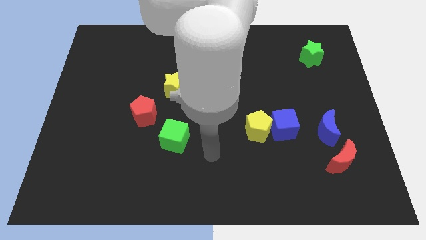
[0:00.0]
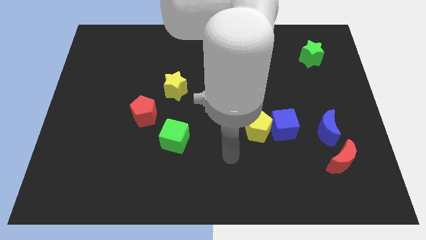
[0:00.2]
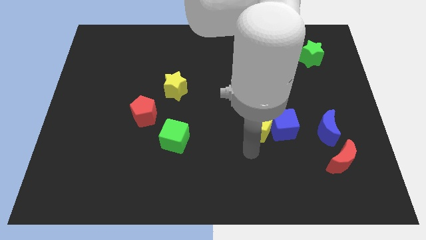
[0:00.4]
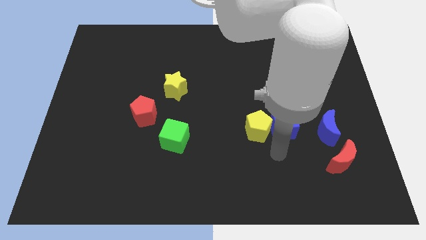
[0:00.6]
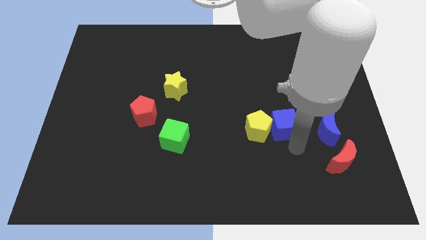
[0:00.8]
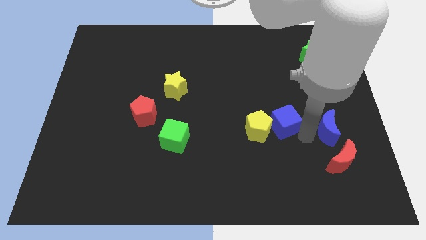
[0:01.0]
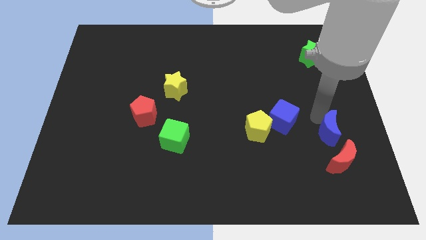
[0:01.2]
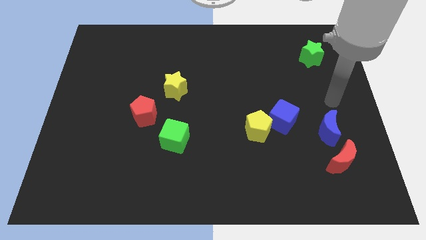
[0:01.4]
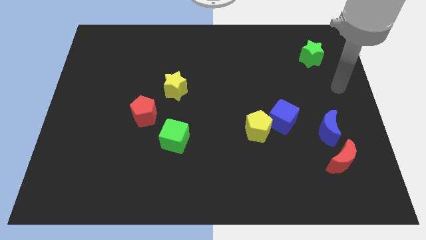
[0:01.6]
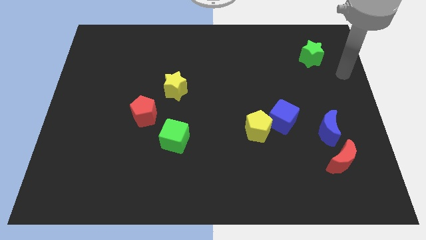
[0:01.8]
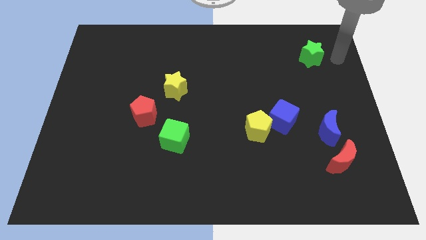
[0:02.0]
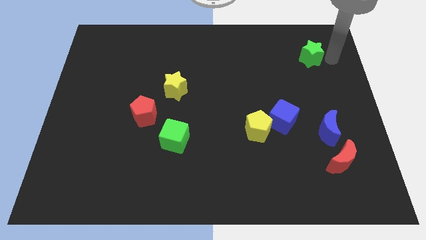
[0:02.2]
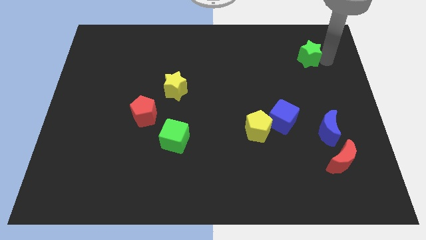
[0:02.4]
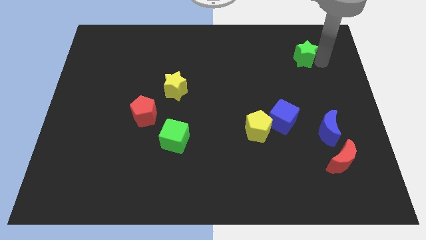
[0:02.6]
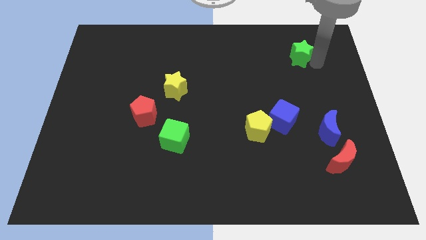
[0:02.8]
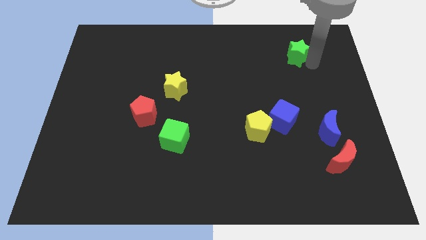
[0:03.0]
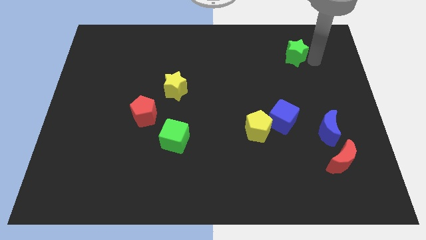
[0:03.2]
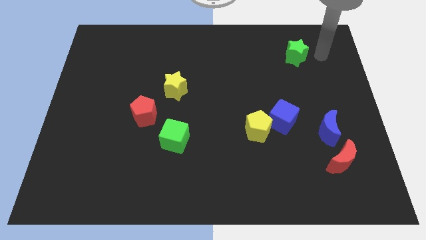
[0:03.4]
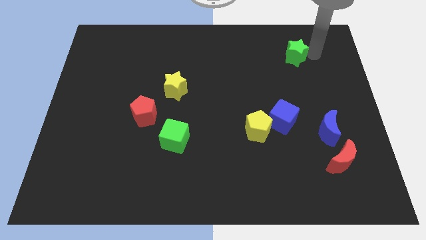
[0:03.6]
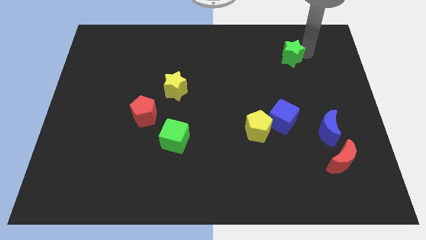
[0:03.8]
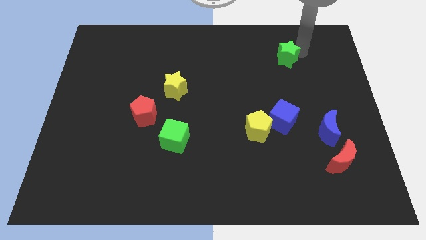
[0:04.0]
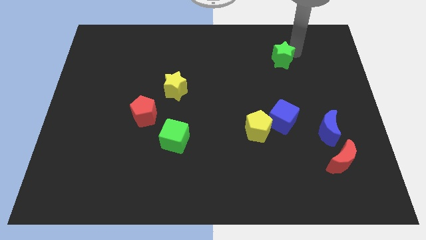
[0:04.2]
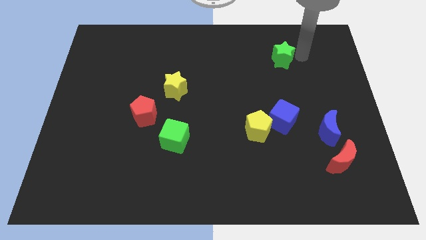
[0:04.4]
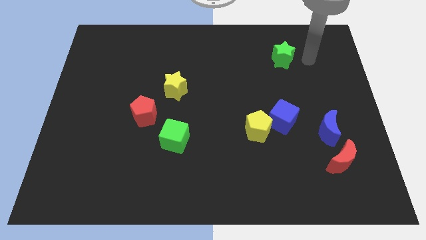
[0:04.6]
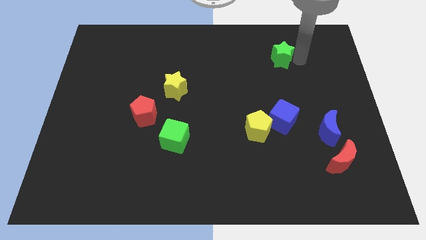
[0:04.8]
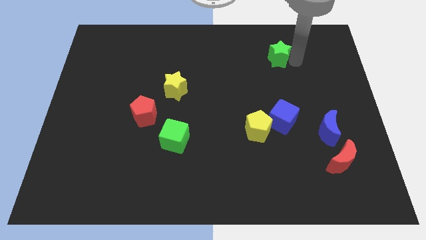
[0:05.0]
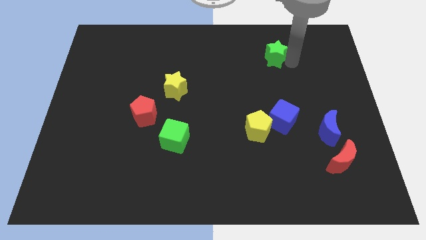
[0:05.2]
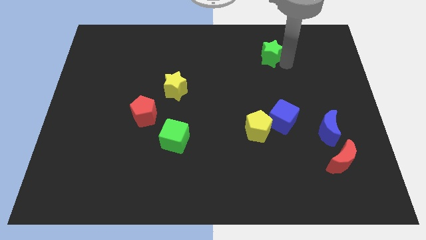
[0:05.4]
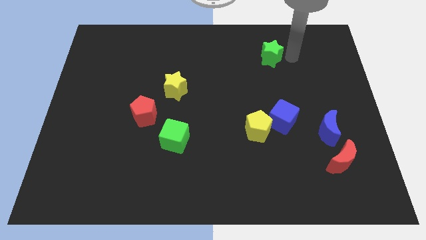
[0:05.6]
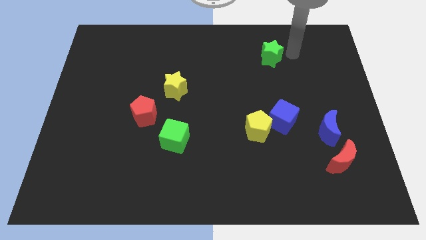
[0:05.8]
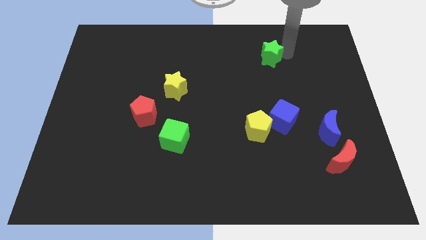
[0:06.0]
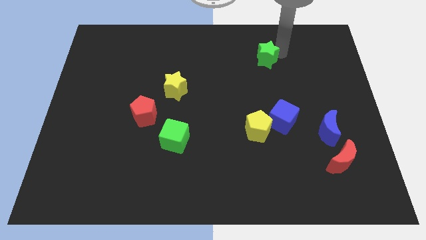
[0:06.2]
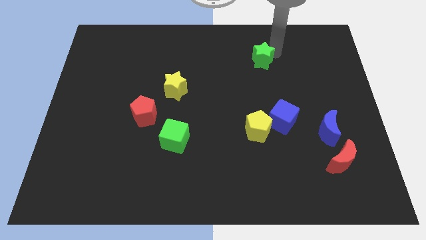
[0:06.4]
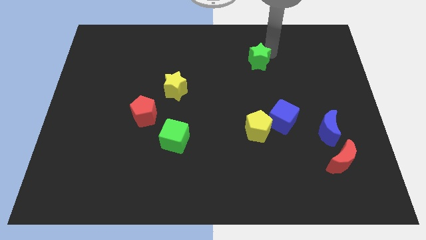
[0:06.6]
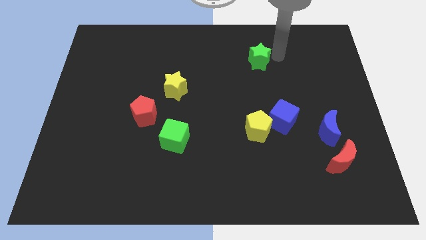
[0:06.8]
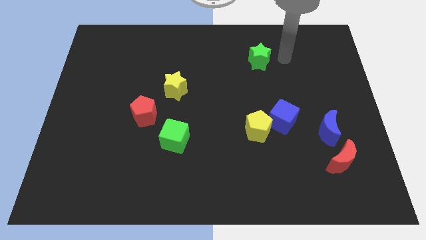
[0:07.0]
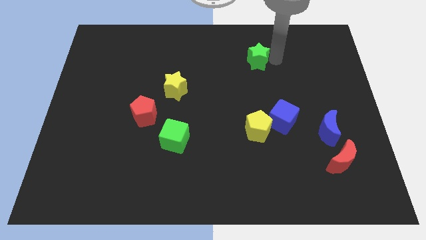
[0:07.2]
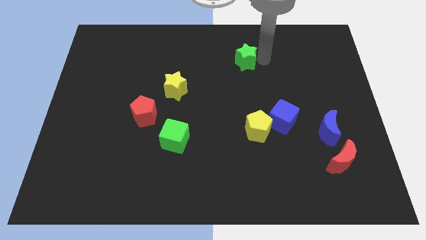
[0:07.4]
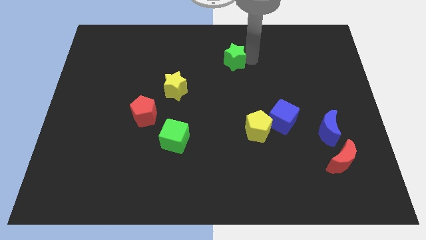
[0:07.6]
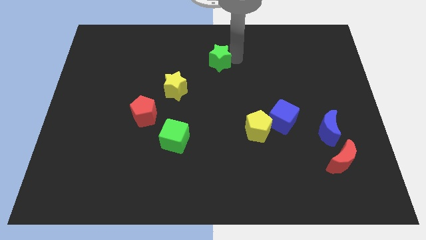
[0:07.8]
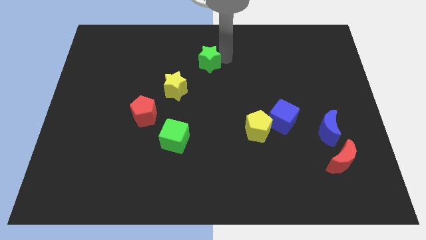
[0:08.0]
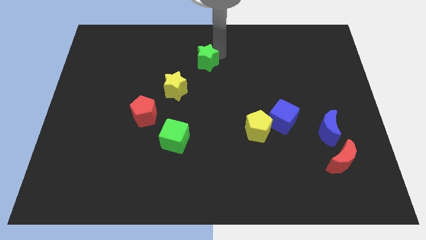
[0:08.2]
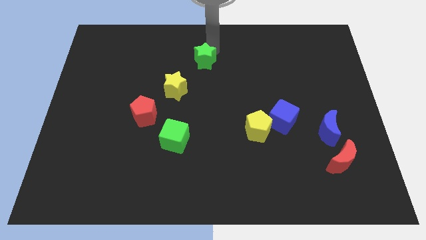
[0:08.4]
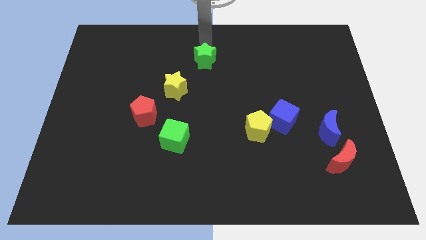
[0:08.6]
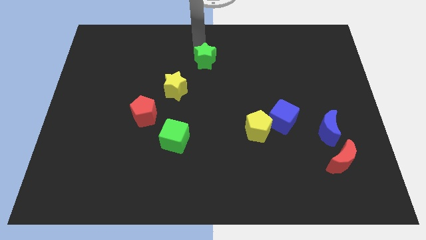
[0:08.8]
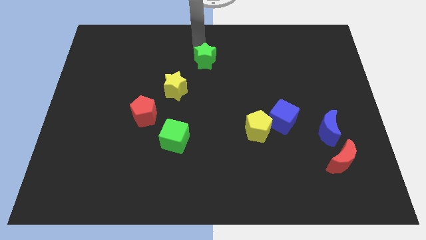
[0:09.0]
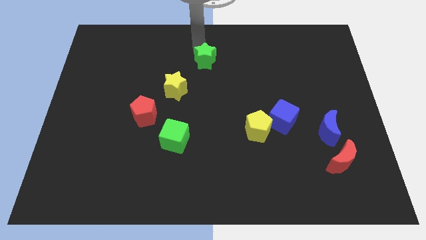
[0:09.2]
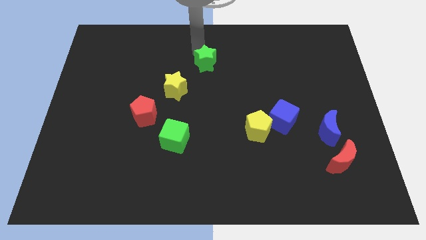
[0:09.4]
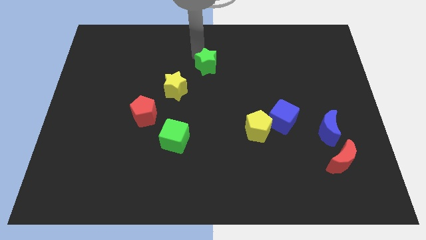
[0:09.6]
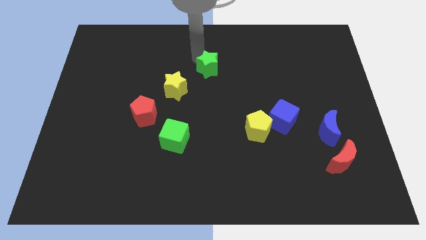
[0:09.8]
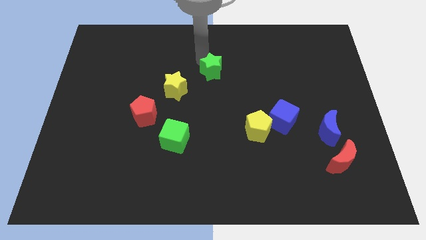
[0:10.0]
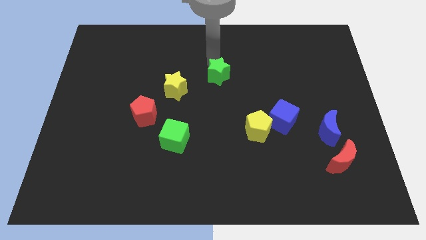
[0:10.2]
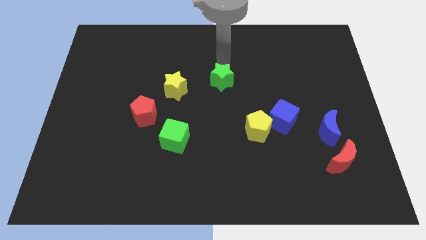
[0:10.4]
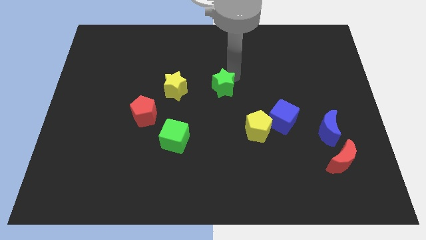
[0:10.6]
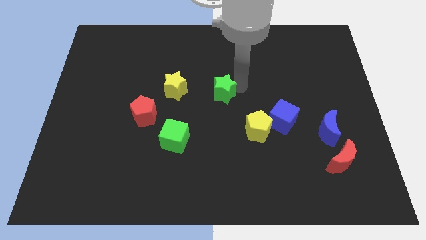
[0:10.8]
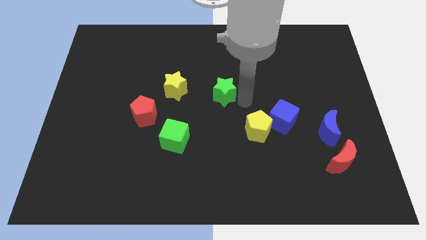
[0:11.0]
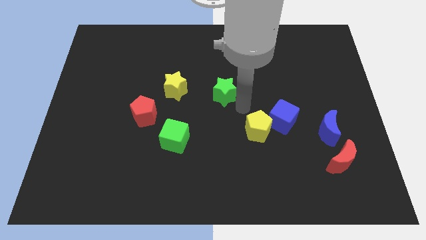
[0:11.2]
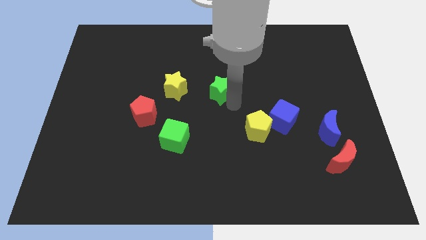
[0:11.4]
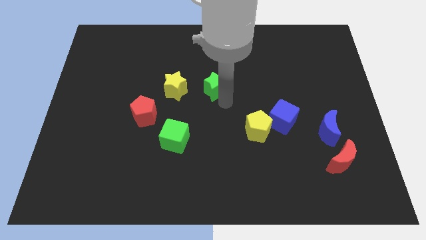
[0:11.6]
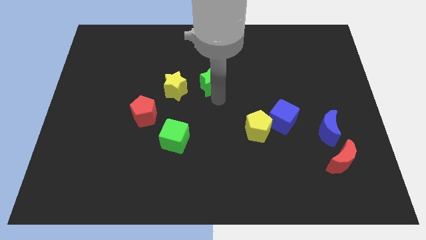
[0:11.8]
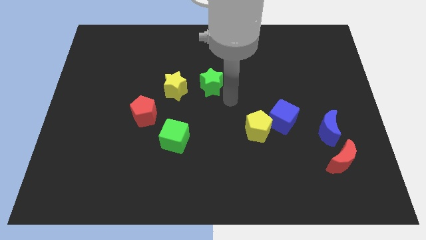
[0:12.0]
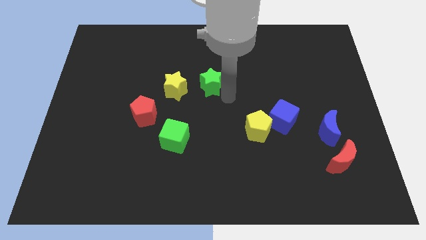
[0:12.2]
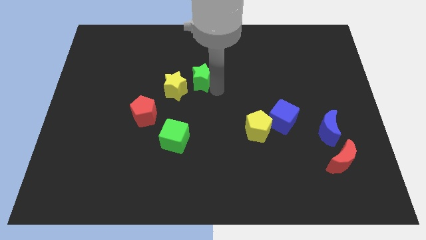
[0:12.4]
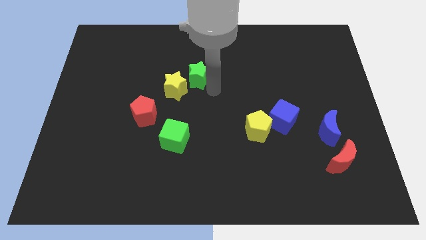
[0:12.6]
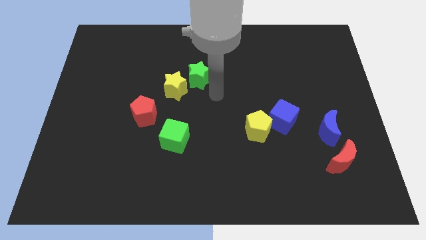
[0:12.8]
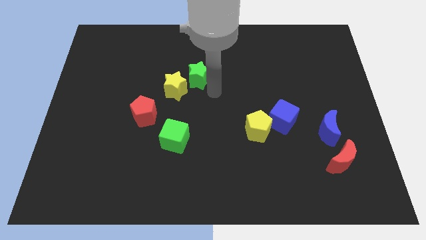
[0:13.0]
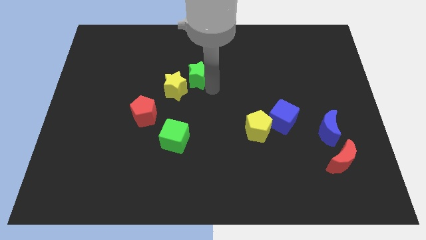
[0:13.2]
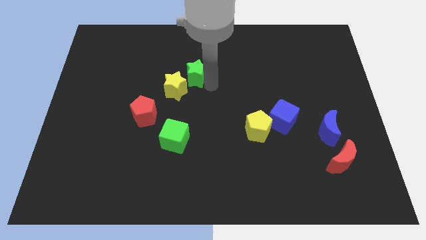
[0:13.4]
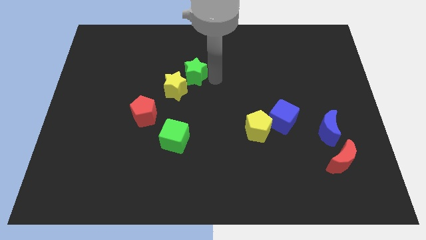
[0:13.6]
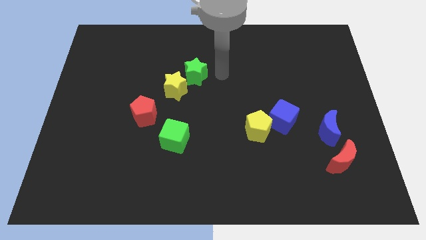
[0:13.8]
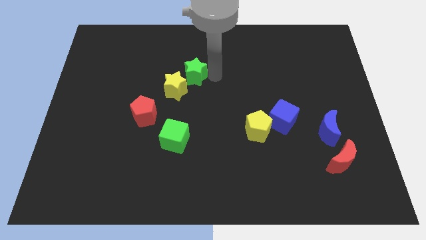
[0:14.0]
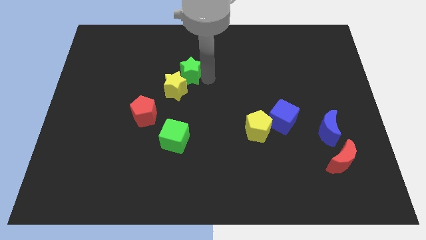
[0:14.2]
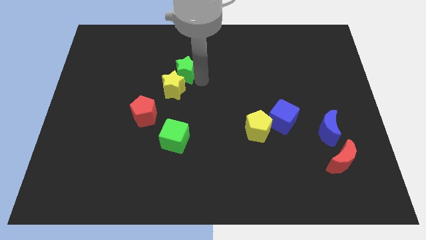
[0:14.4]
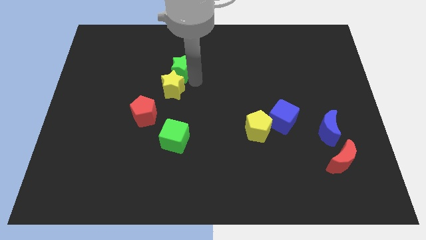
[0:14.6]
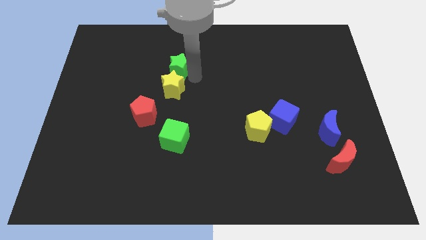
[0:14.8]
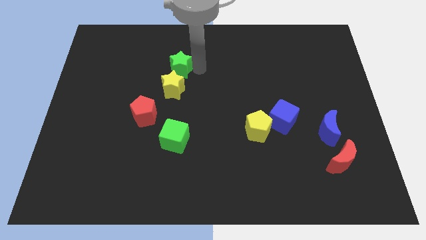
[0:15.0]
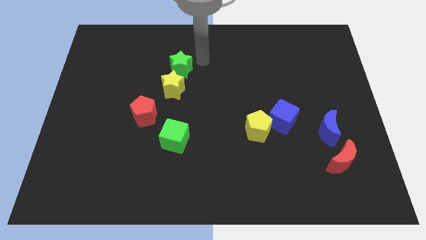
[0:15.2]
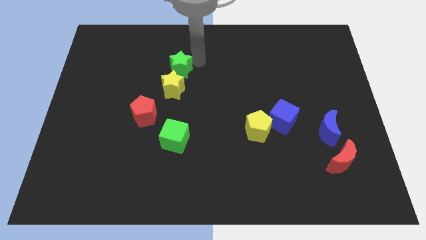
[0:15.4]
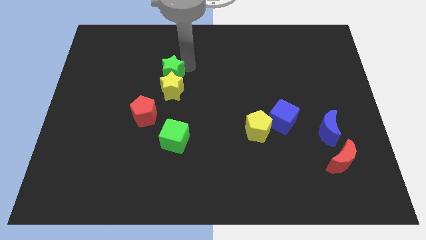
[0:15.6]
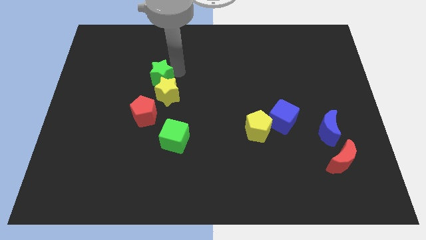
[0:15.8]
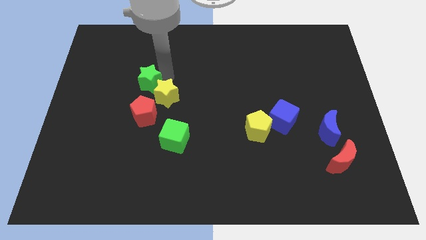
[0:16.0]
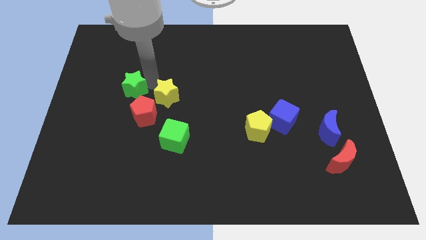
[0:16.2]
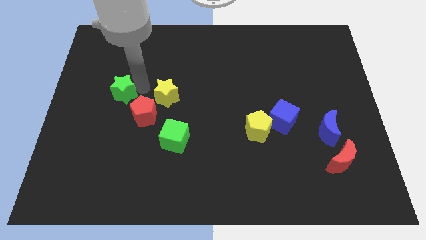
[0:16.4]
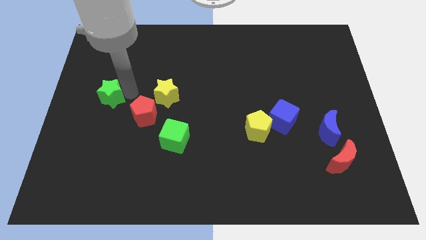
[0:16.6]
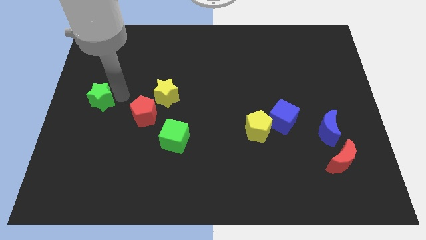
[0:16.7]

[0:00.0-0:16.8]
move the green star to the left side
